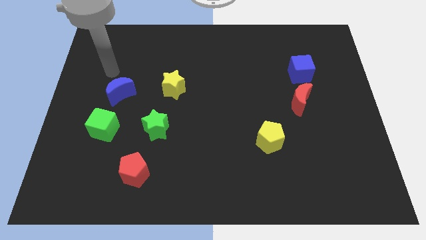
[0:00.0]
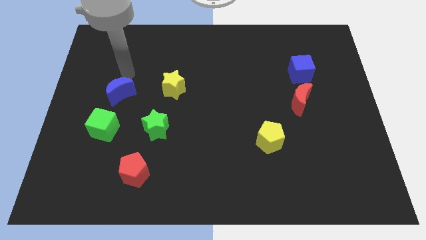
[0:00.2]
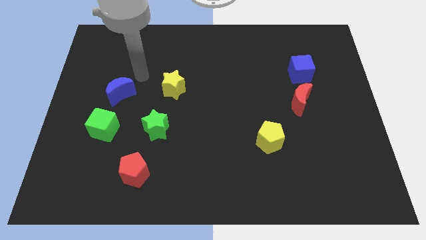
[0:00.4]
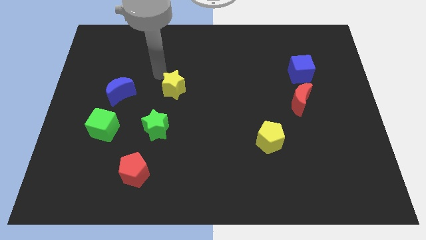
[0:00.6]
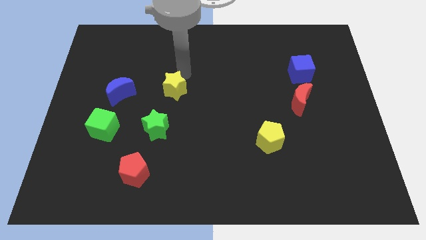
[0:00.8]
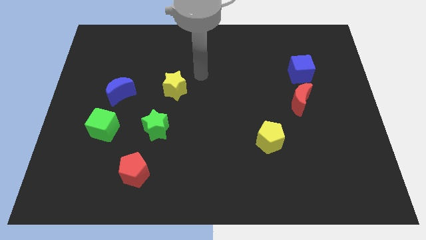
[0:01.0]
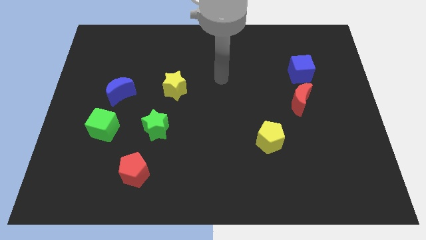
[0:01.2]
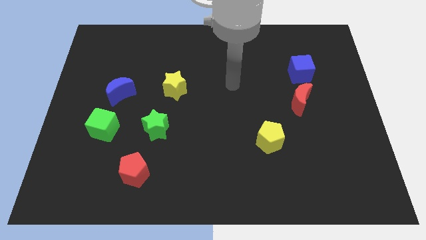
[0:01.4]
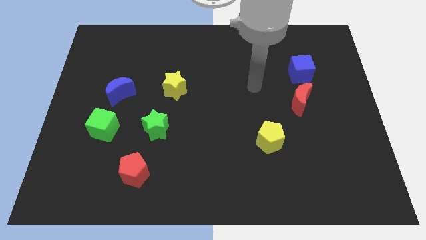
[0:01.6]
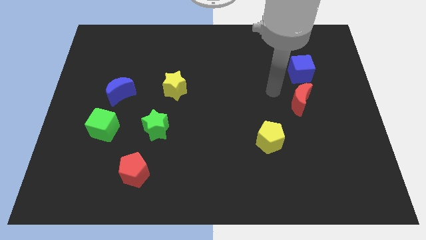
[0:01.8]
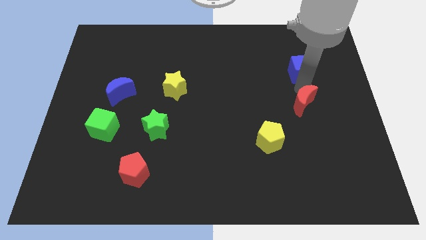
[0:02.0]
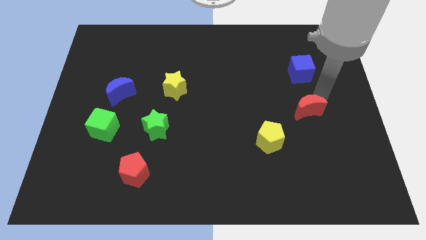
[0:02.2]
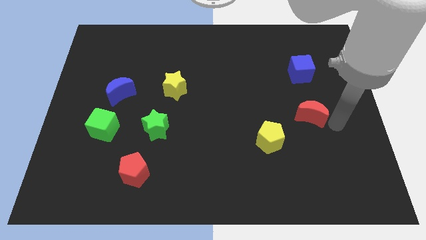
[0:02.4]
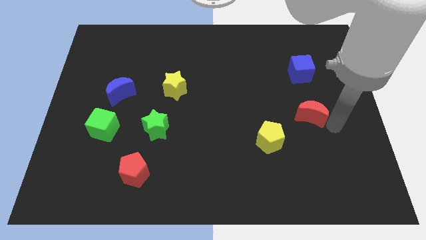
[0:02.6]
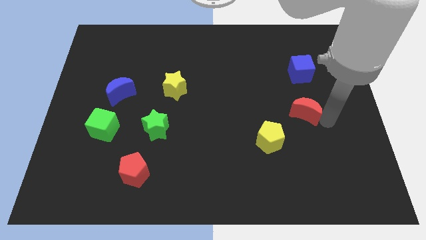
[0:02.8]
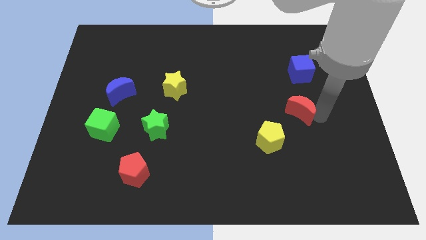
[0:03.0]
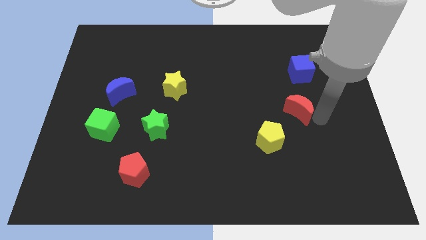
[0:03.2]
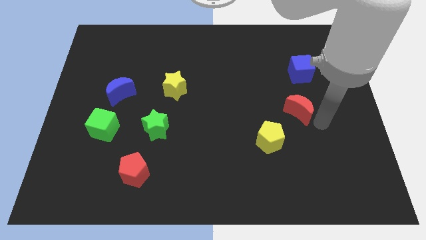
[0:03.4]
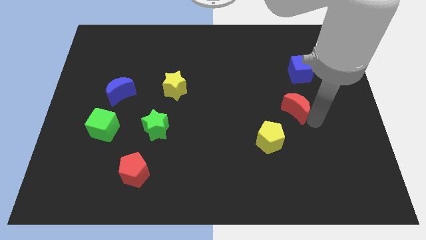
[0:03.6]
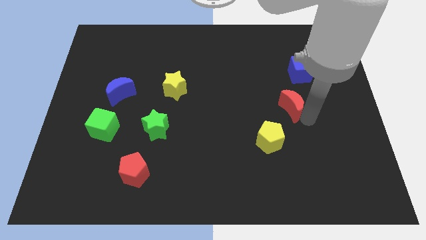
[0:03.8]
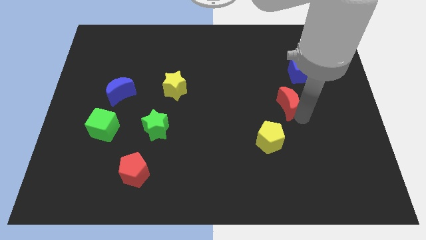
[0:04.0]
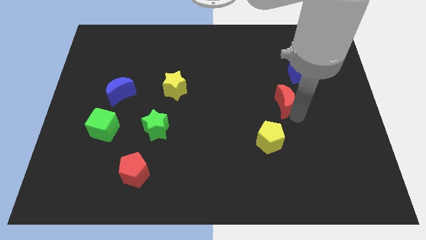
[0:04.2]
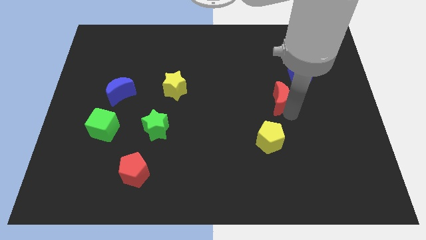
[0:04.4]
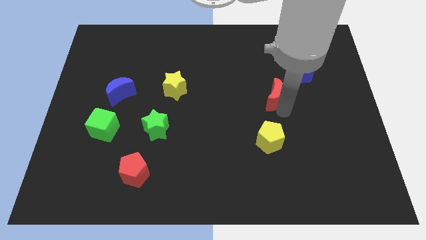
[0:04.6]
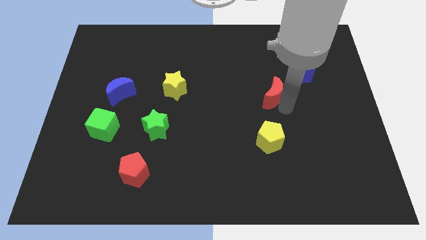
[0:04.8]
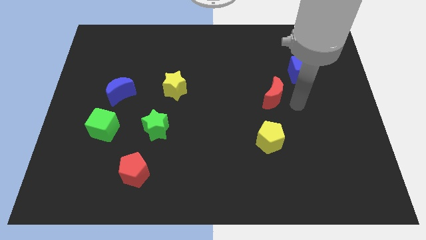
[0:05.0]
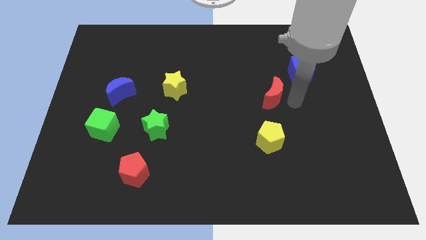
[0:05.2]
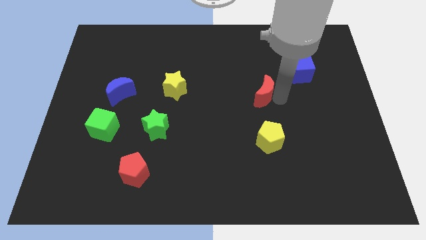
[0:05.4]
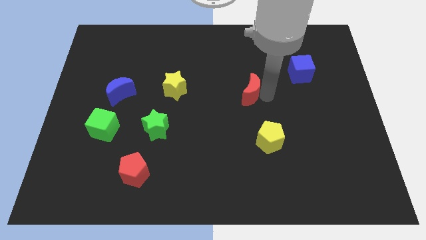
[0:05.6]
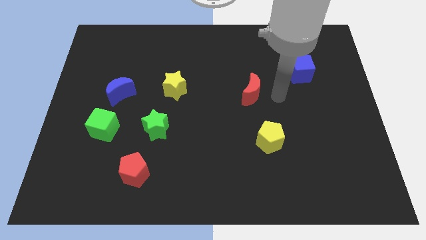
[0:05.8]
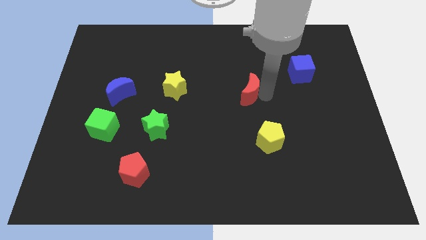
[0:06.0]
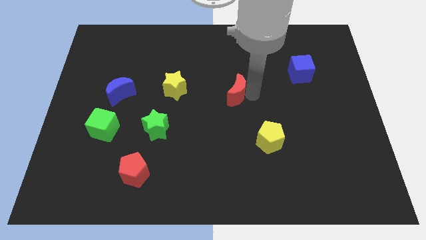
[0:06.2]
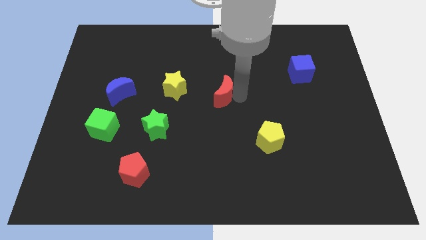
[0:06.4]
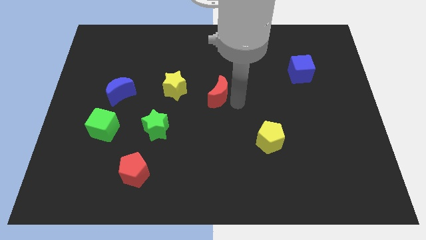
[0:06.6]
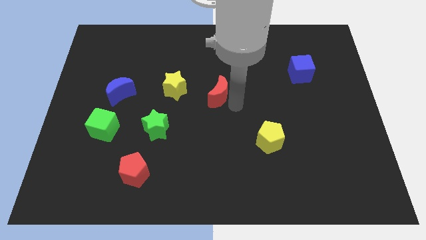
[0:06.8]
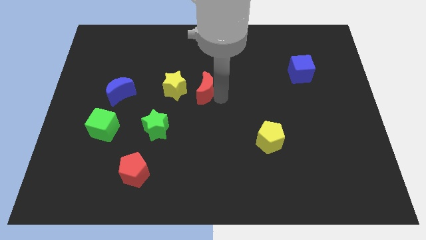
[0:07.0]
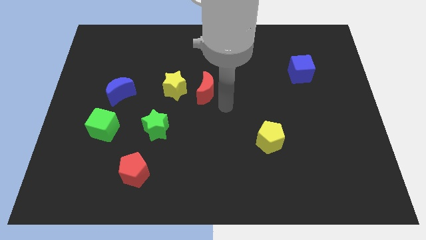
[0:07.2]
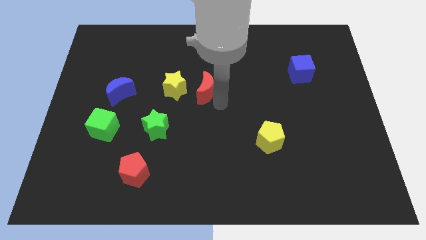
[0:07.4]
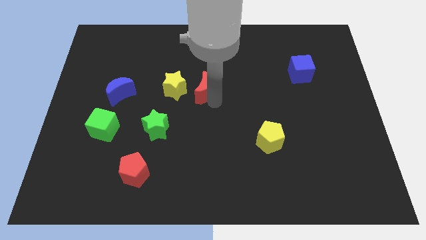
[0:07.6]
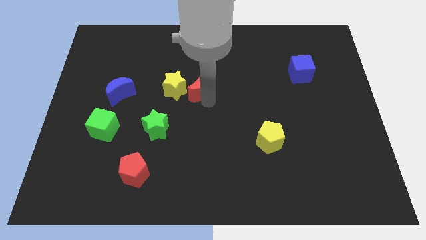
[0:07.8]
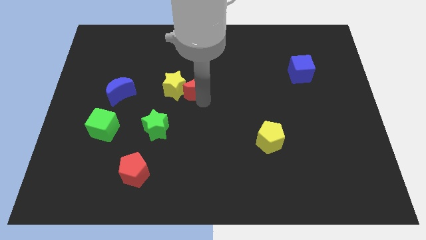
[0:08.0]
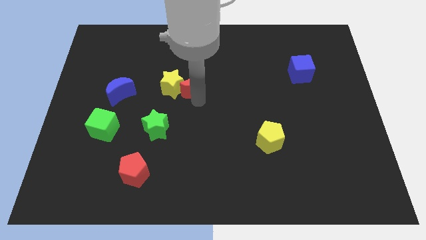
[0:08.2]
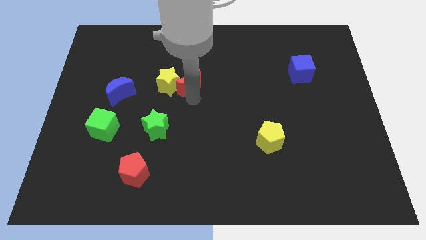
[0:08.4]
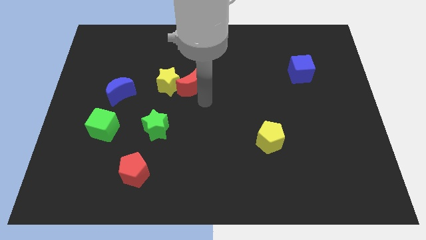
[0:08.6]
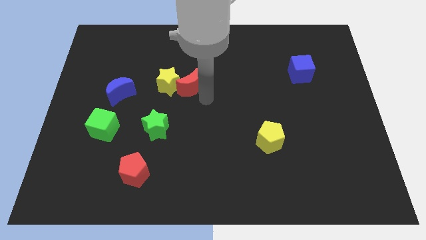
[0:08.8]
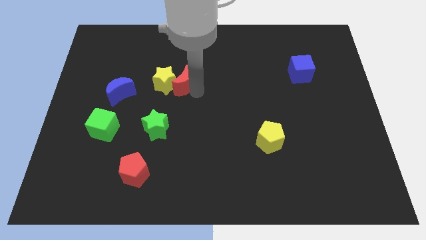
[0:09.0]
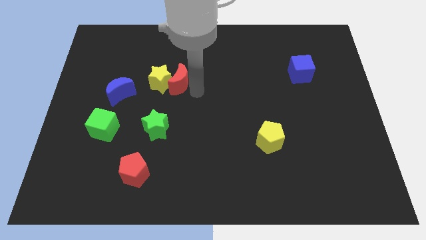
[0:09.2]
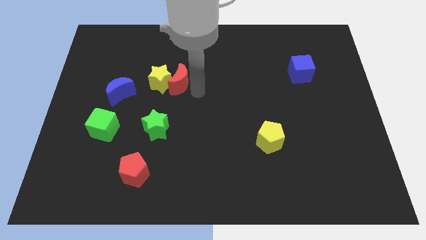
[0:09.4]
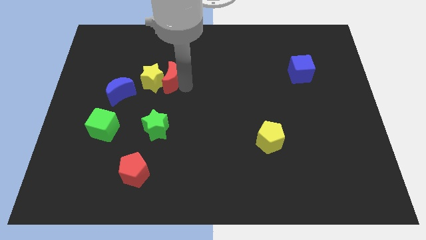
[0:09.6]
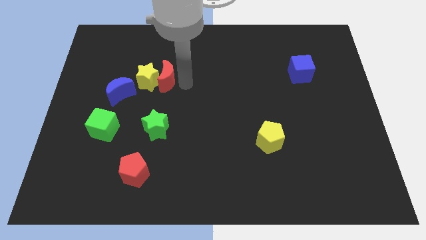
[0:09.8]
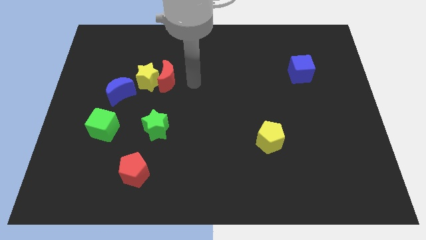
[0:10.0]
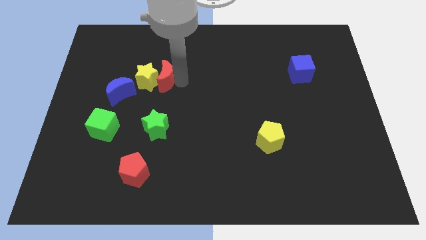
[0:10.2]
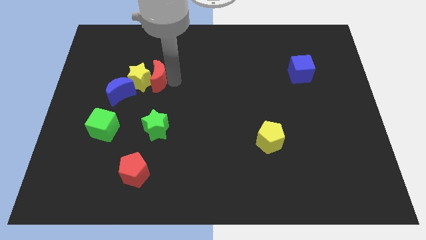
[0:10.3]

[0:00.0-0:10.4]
put the red moon to the top right of the blue moon

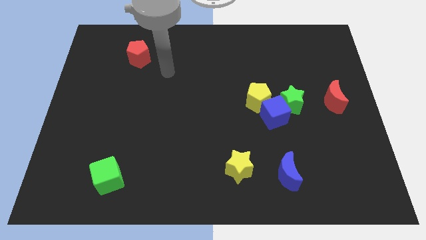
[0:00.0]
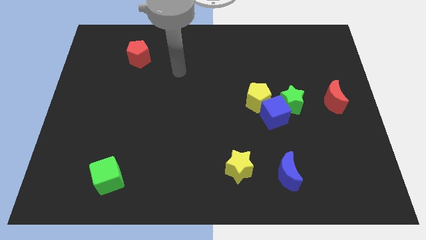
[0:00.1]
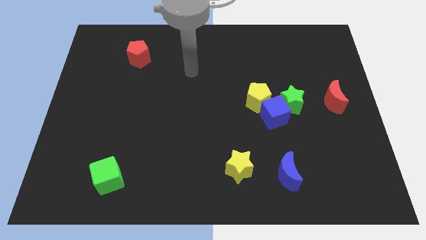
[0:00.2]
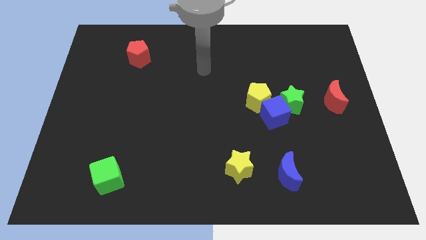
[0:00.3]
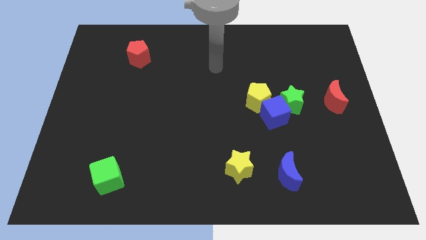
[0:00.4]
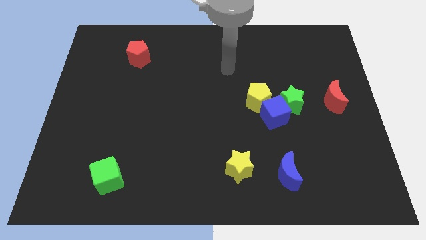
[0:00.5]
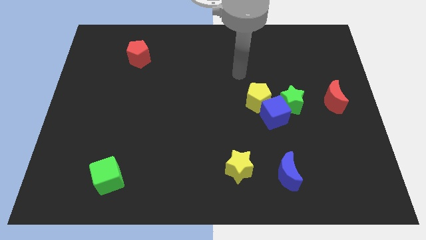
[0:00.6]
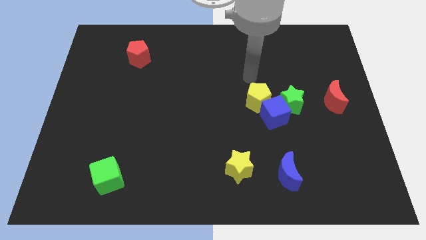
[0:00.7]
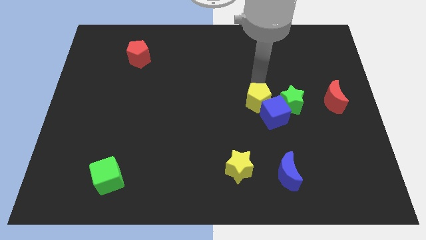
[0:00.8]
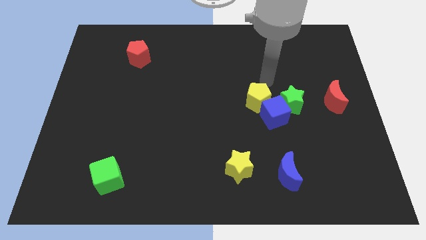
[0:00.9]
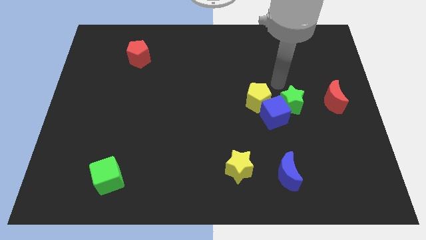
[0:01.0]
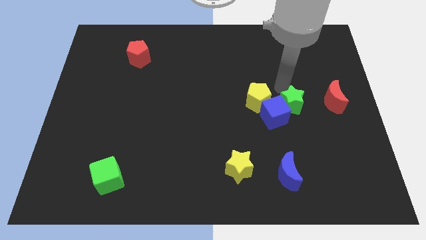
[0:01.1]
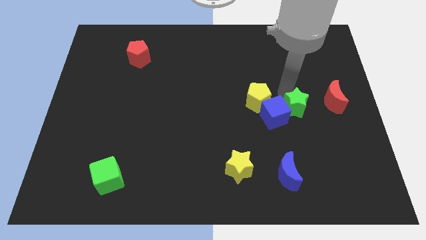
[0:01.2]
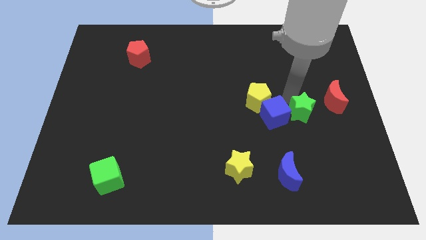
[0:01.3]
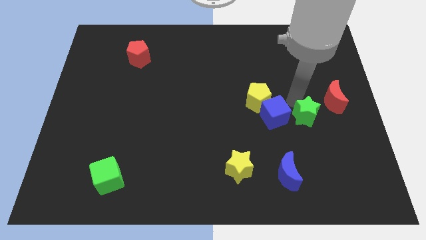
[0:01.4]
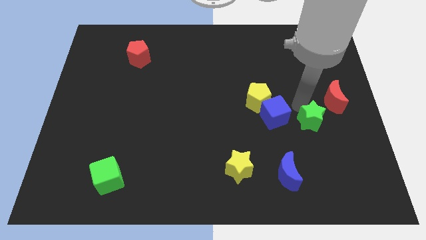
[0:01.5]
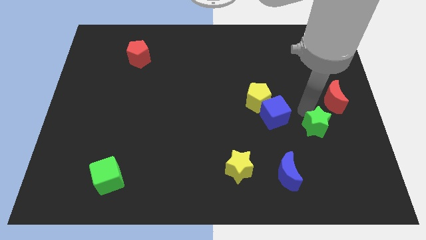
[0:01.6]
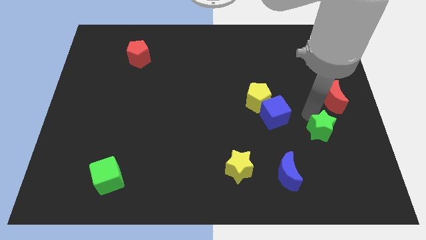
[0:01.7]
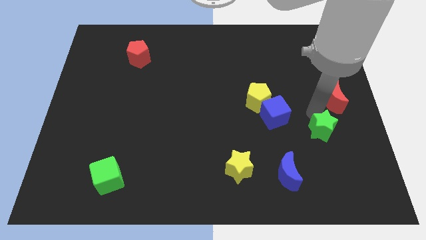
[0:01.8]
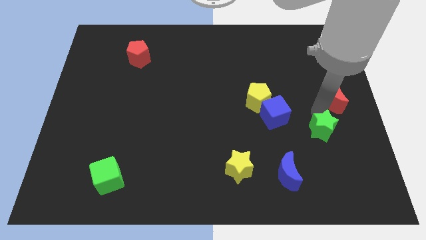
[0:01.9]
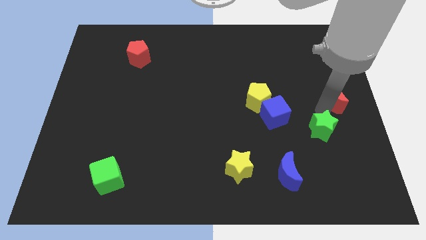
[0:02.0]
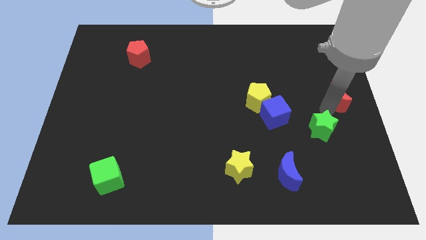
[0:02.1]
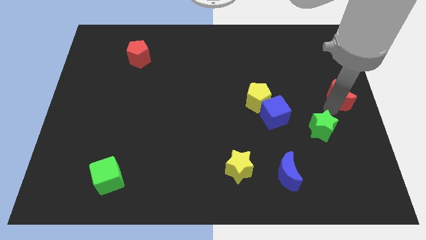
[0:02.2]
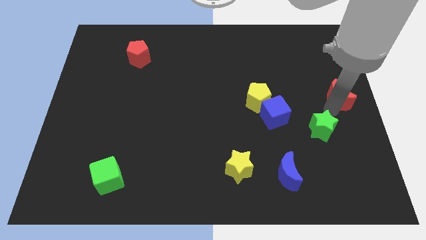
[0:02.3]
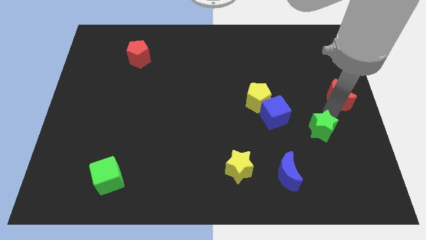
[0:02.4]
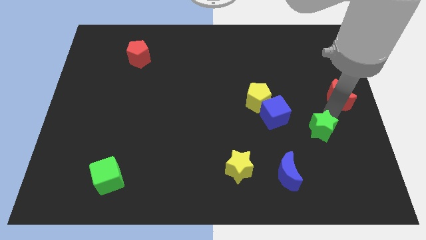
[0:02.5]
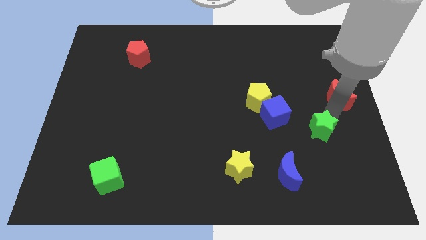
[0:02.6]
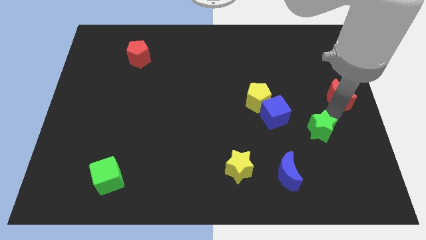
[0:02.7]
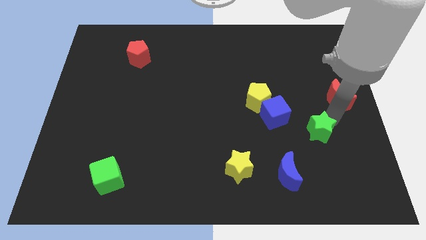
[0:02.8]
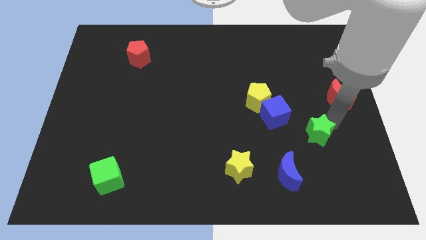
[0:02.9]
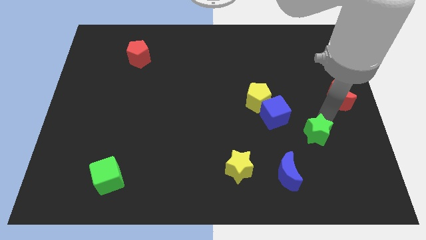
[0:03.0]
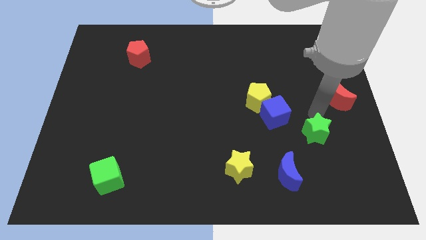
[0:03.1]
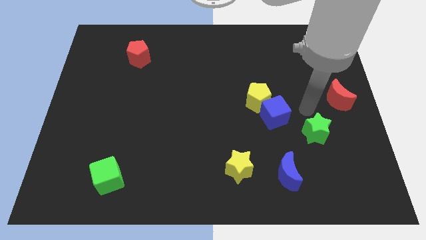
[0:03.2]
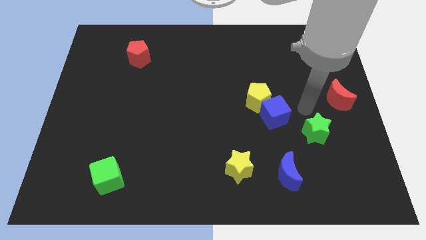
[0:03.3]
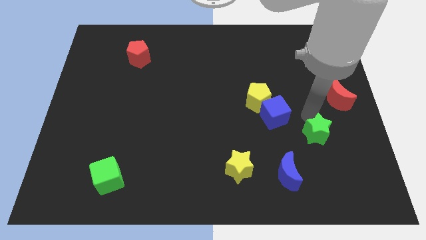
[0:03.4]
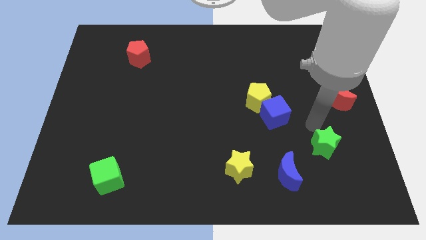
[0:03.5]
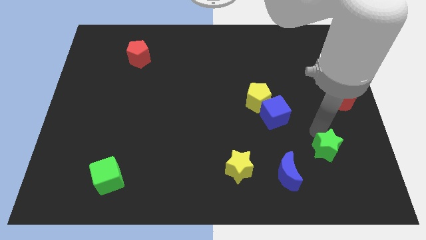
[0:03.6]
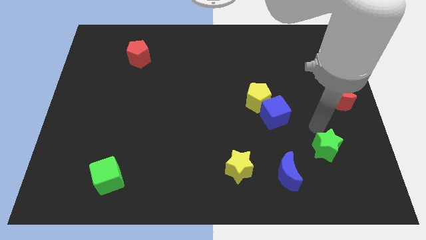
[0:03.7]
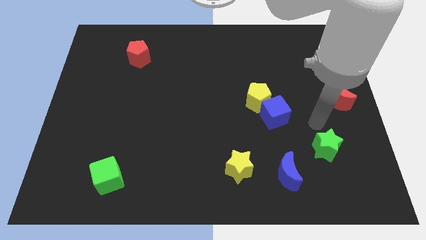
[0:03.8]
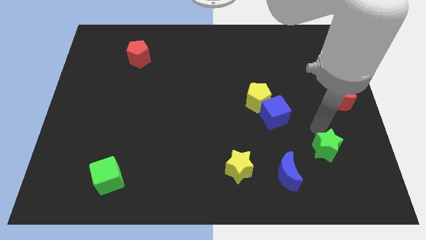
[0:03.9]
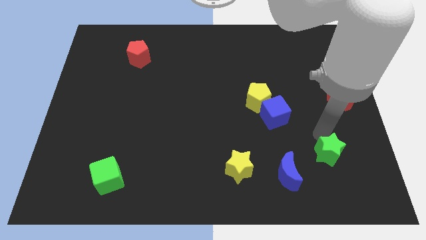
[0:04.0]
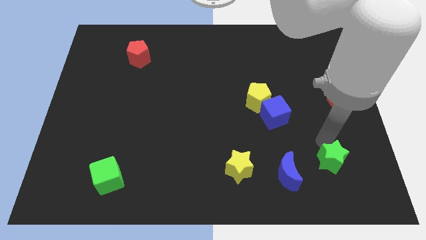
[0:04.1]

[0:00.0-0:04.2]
put the green star to the right side of the blue moon
